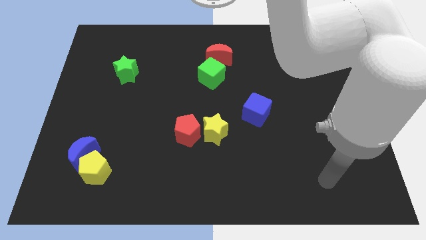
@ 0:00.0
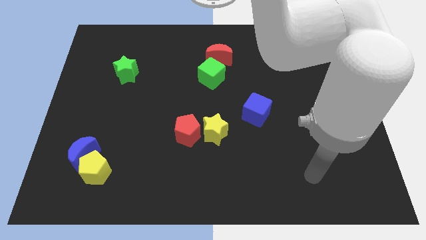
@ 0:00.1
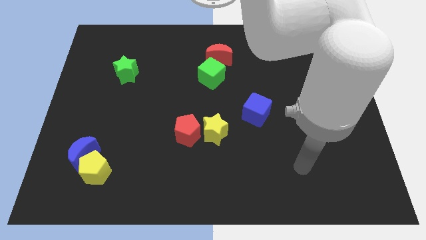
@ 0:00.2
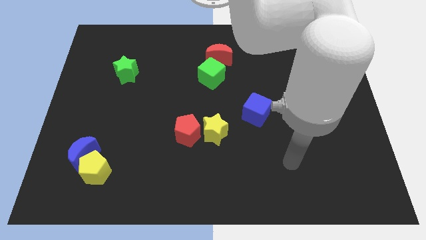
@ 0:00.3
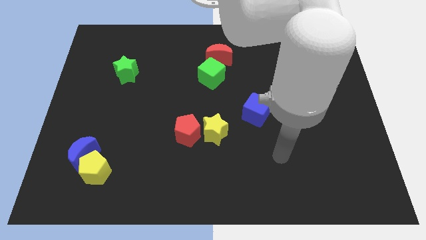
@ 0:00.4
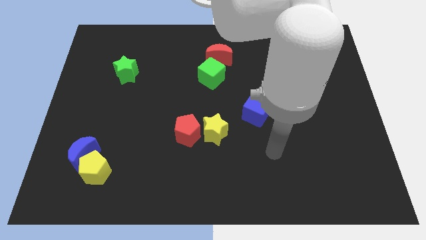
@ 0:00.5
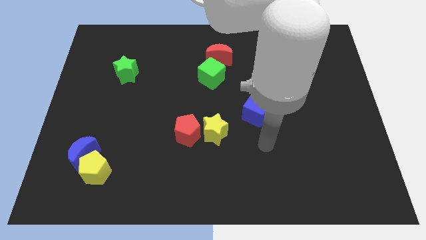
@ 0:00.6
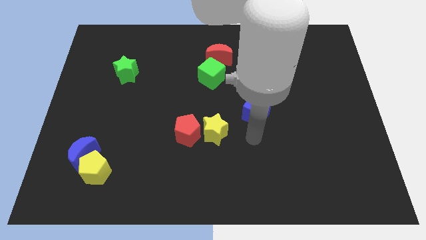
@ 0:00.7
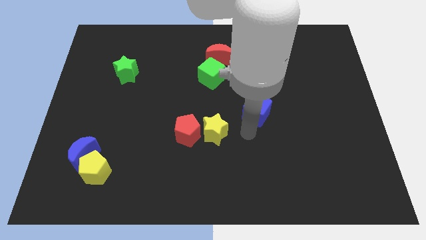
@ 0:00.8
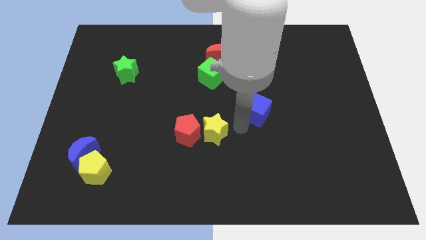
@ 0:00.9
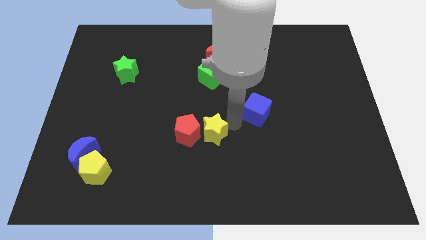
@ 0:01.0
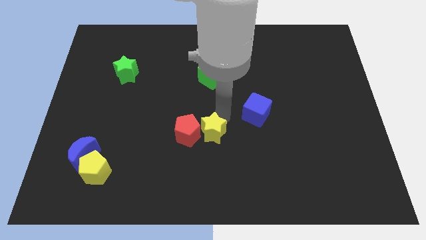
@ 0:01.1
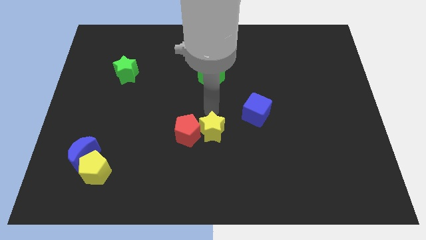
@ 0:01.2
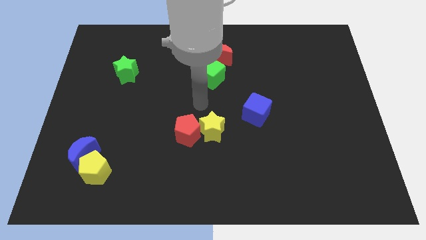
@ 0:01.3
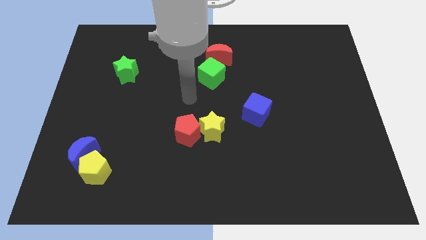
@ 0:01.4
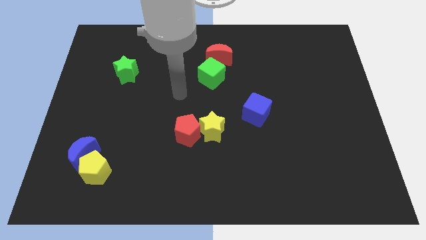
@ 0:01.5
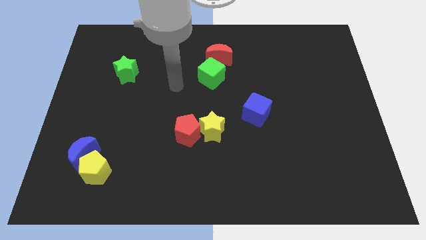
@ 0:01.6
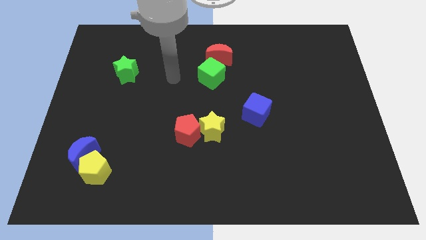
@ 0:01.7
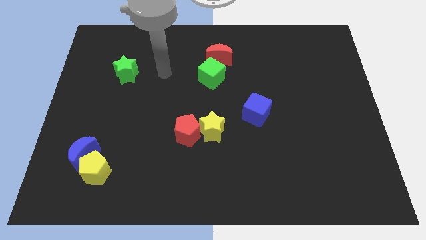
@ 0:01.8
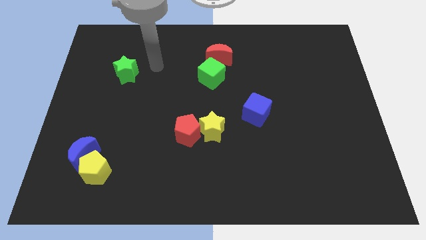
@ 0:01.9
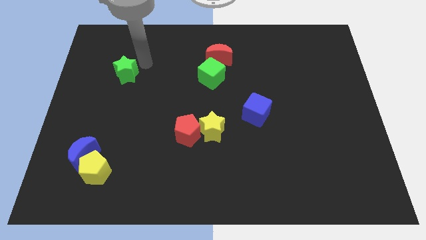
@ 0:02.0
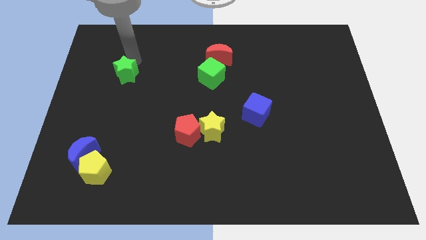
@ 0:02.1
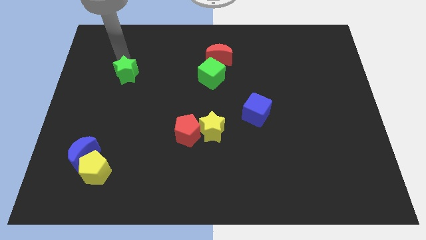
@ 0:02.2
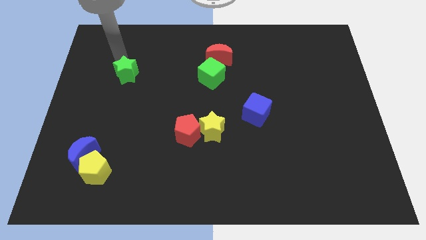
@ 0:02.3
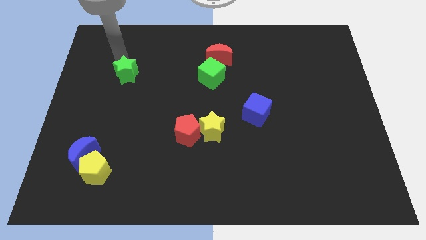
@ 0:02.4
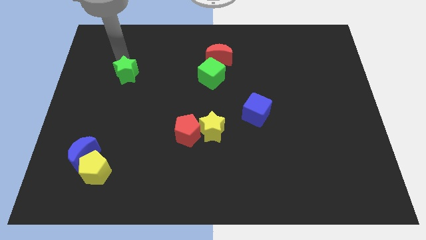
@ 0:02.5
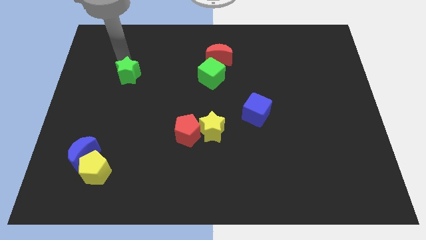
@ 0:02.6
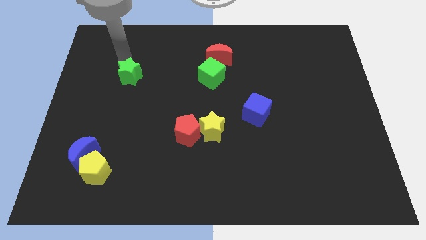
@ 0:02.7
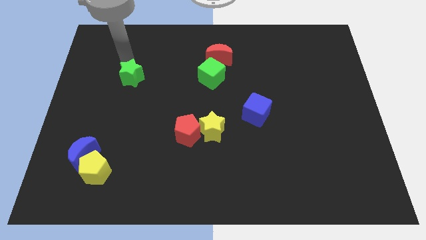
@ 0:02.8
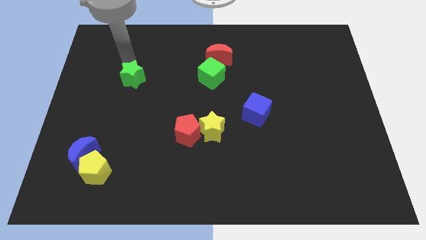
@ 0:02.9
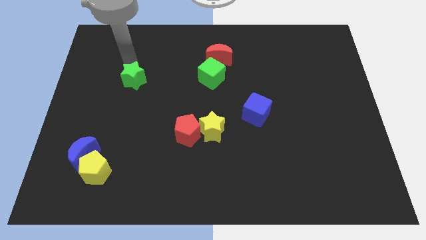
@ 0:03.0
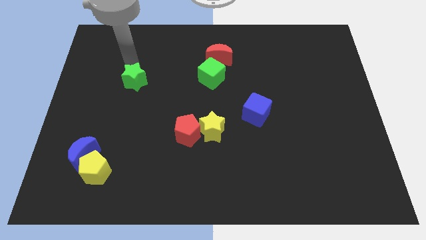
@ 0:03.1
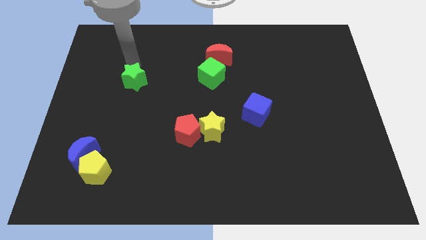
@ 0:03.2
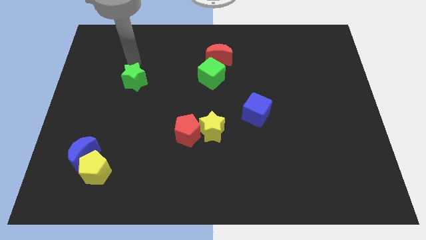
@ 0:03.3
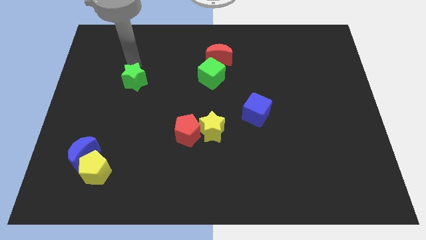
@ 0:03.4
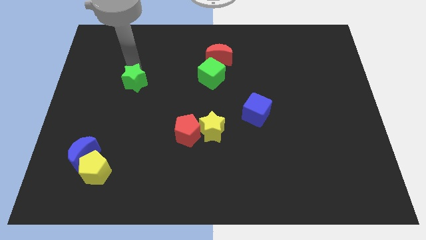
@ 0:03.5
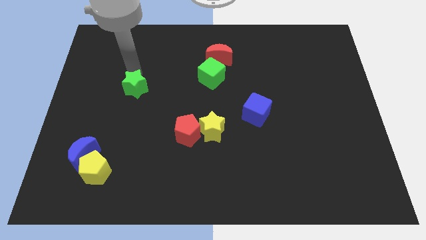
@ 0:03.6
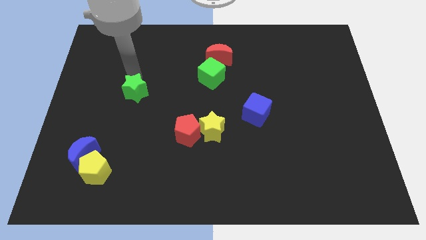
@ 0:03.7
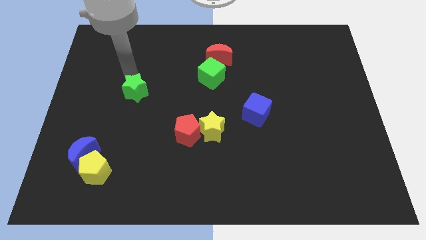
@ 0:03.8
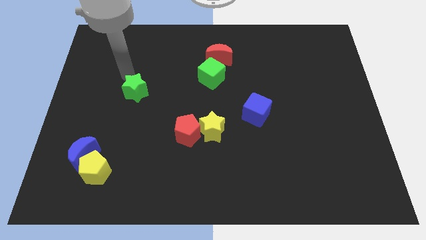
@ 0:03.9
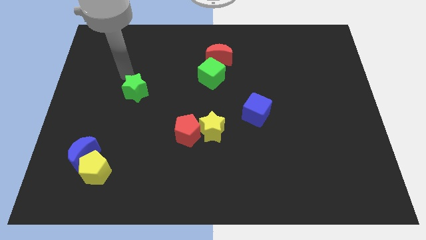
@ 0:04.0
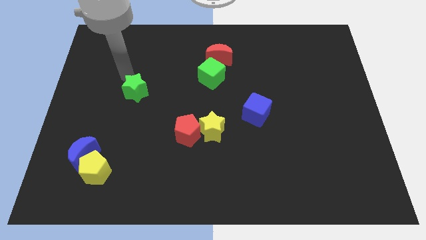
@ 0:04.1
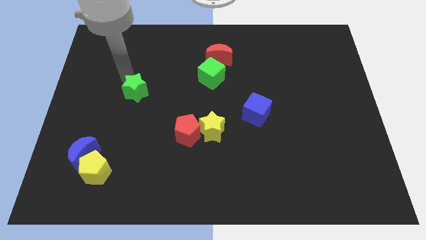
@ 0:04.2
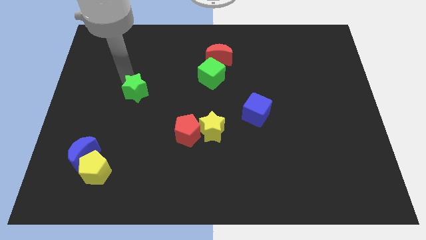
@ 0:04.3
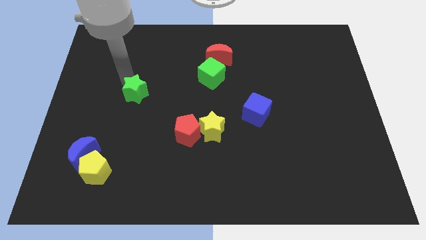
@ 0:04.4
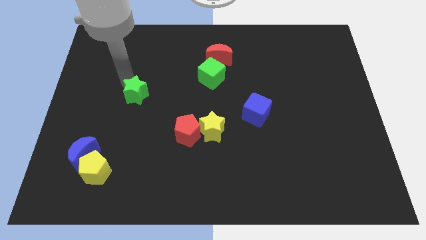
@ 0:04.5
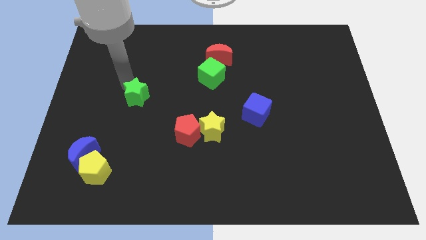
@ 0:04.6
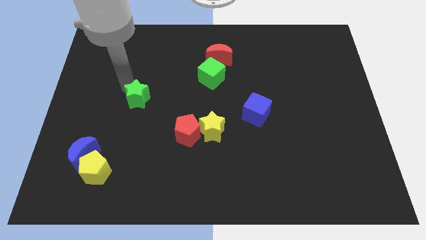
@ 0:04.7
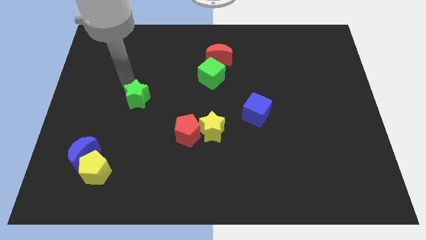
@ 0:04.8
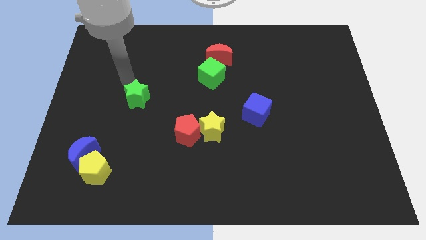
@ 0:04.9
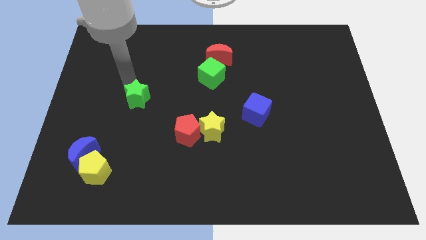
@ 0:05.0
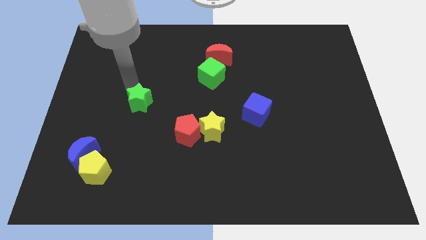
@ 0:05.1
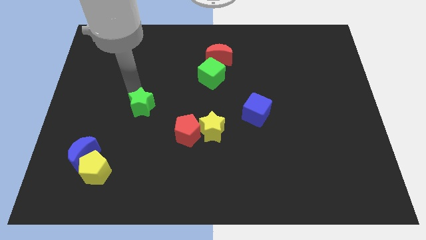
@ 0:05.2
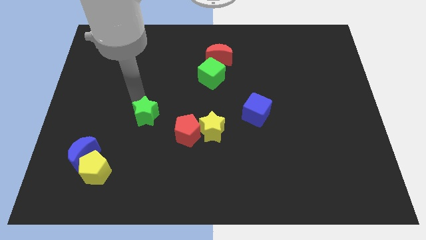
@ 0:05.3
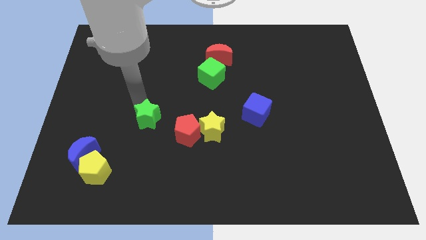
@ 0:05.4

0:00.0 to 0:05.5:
move the green star to the left side of the yellow star

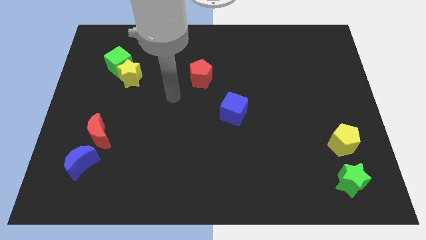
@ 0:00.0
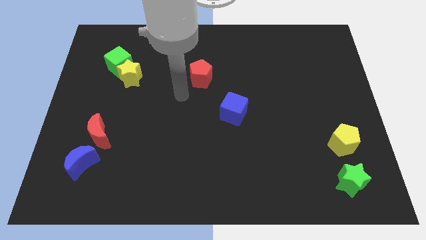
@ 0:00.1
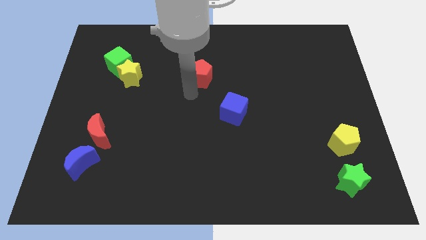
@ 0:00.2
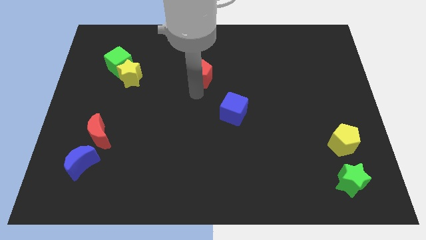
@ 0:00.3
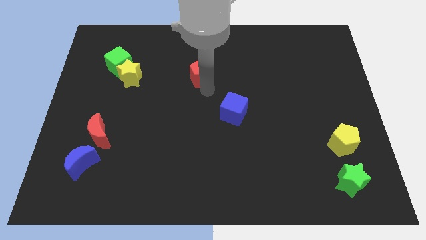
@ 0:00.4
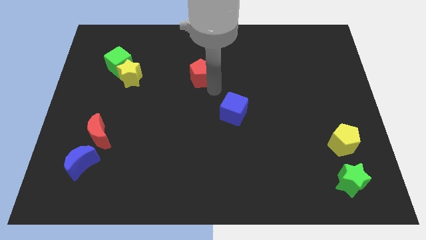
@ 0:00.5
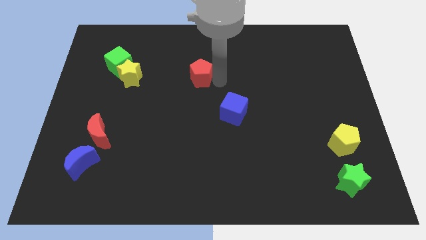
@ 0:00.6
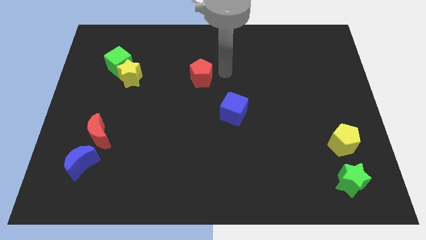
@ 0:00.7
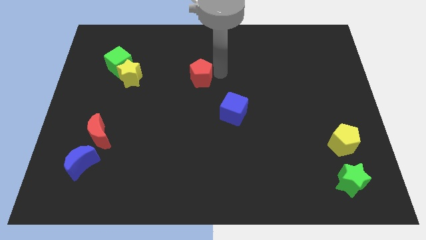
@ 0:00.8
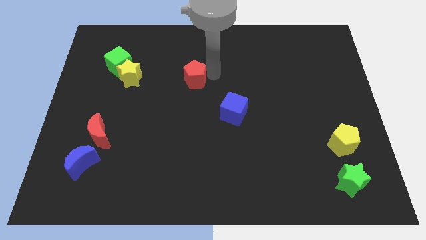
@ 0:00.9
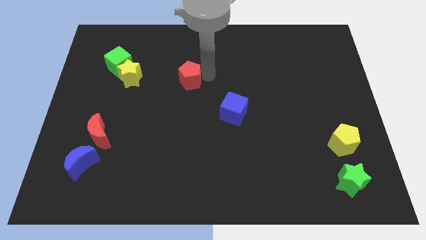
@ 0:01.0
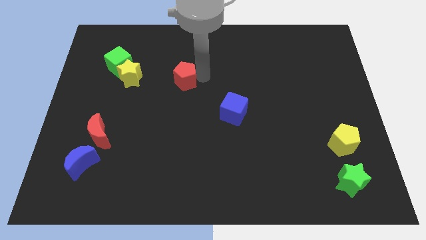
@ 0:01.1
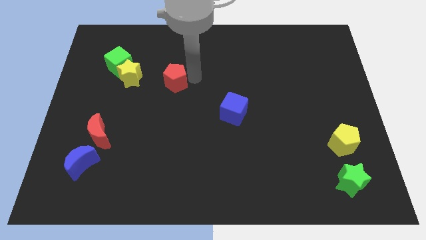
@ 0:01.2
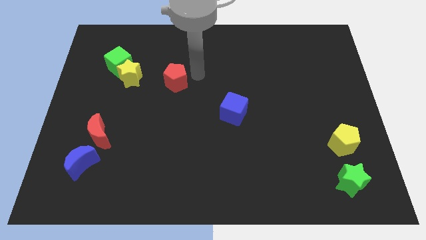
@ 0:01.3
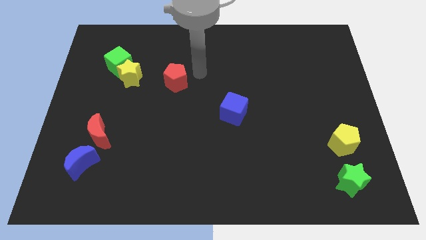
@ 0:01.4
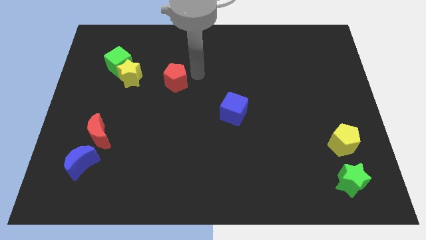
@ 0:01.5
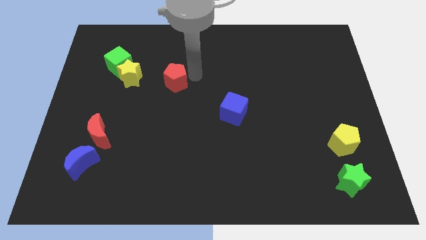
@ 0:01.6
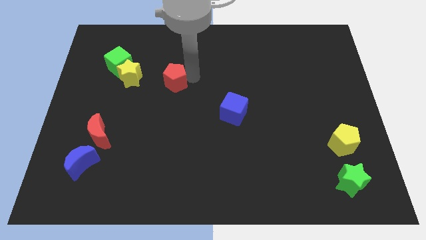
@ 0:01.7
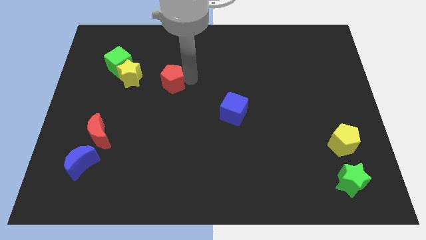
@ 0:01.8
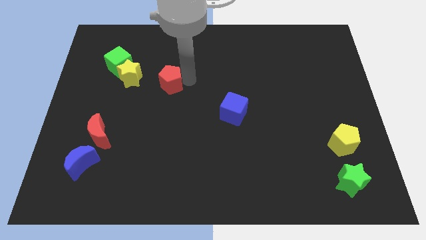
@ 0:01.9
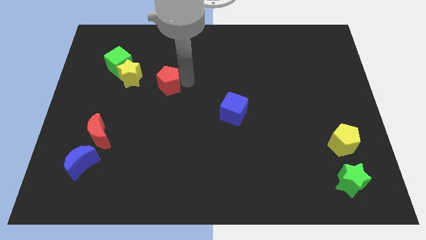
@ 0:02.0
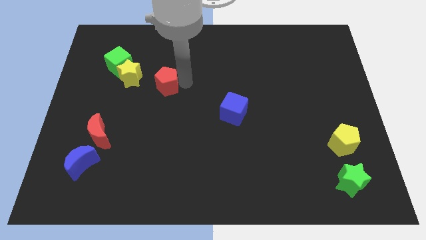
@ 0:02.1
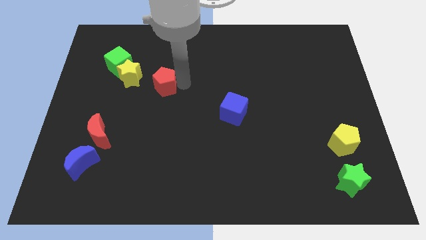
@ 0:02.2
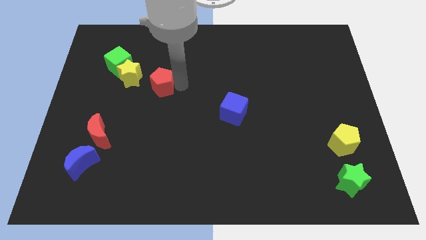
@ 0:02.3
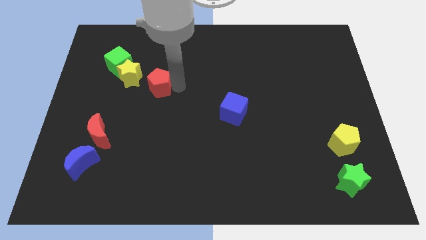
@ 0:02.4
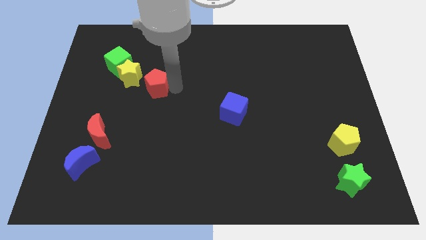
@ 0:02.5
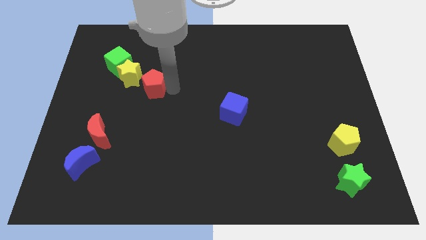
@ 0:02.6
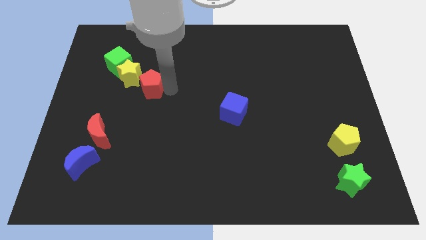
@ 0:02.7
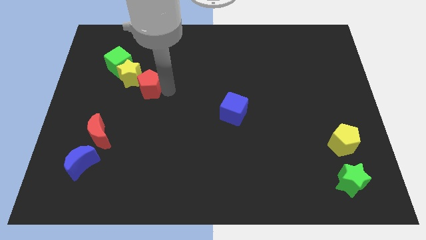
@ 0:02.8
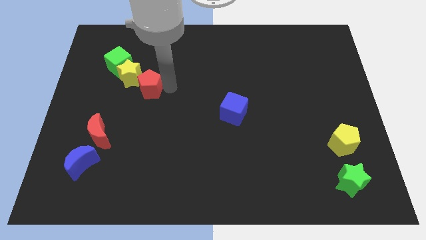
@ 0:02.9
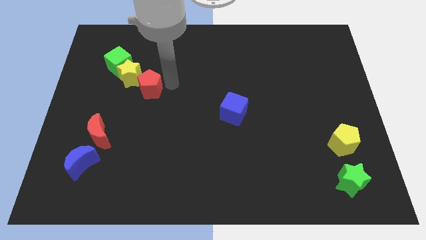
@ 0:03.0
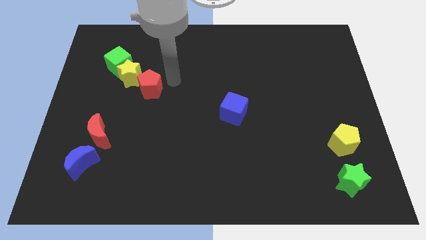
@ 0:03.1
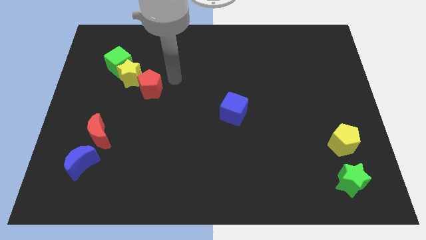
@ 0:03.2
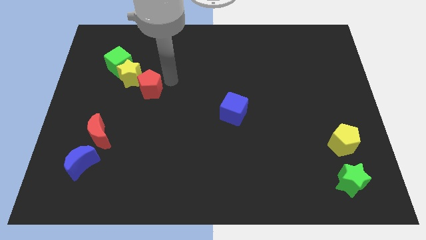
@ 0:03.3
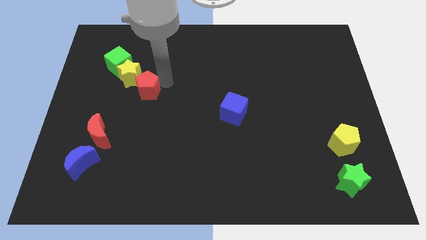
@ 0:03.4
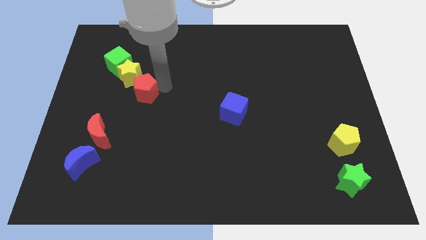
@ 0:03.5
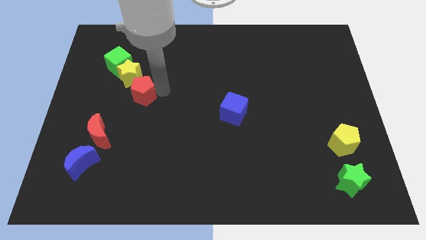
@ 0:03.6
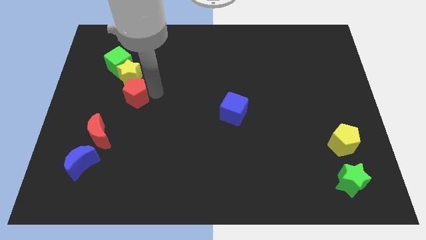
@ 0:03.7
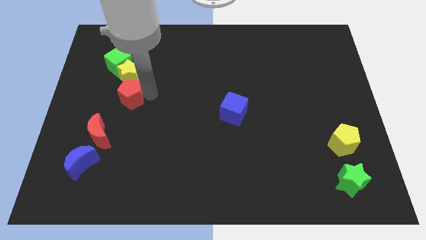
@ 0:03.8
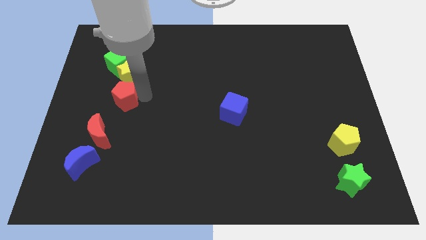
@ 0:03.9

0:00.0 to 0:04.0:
move the red pentagon diagonally down and to the left of the yellow star
